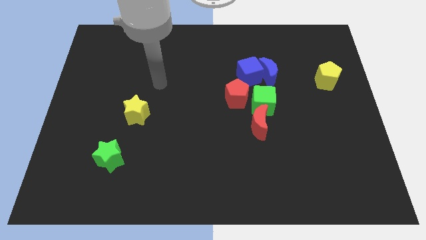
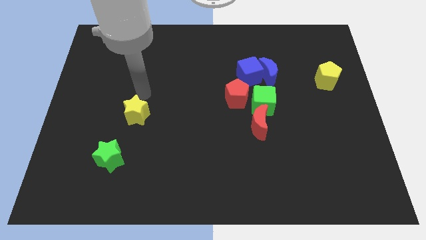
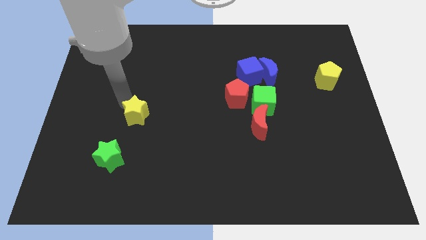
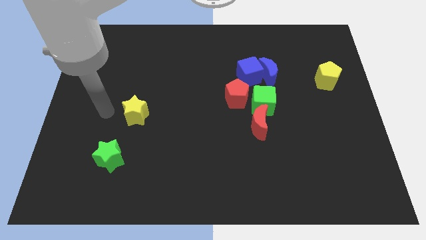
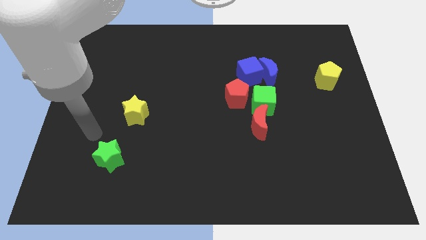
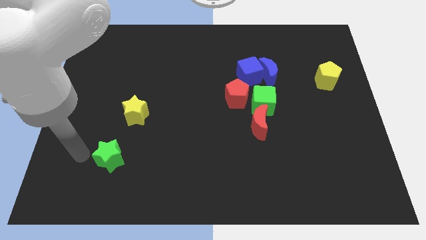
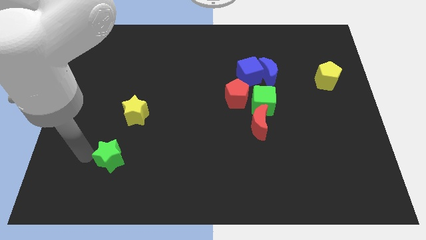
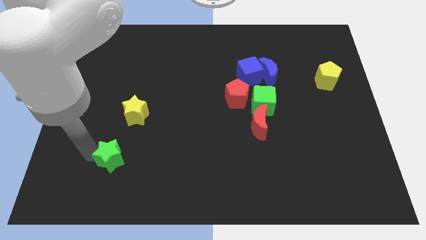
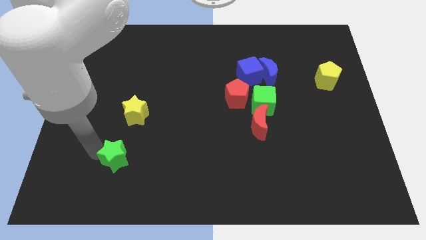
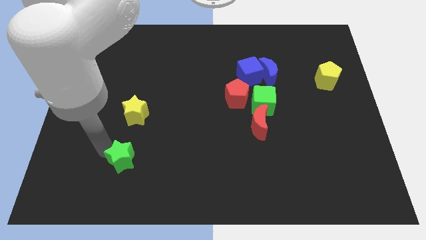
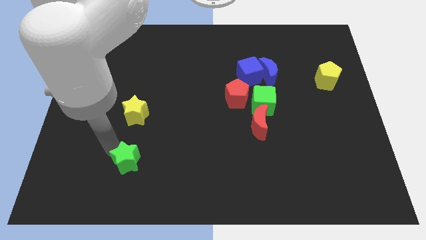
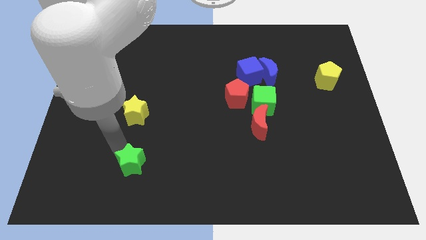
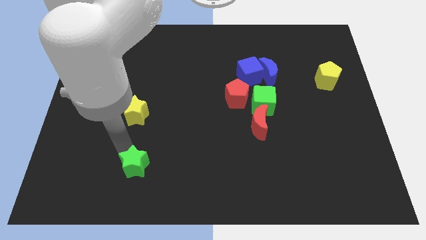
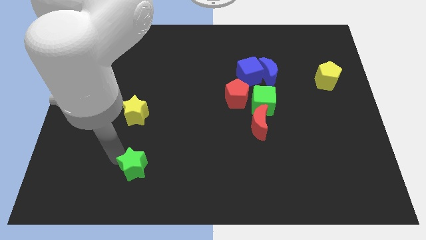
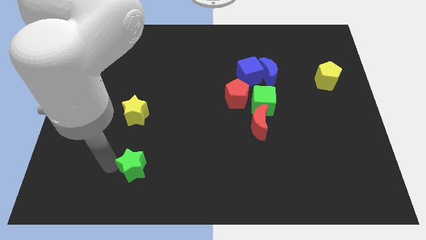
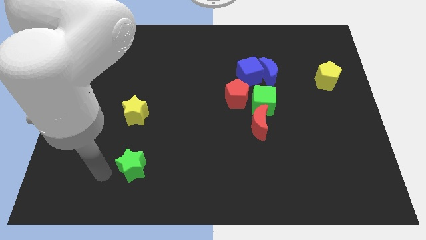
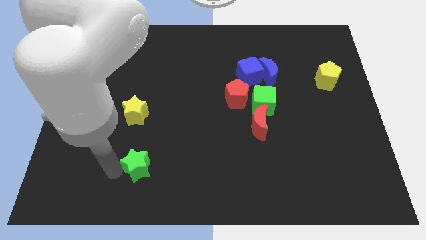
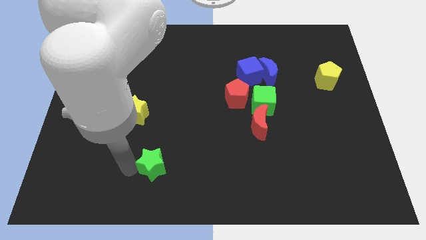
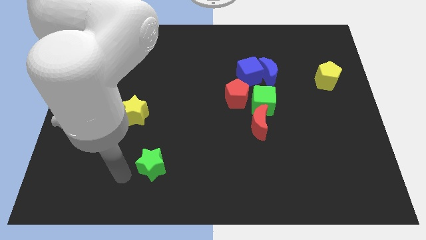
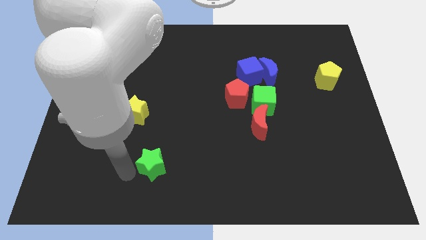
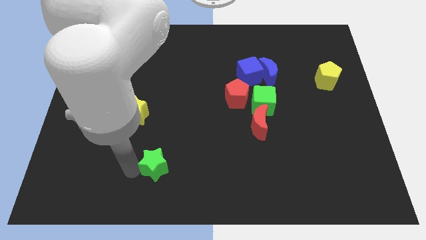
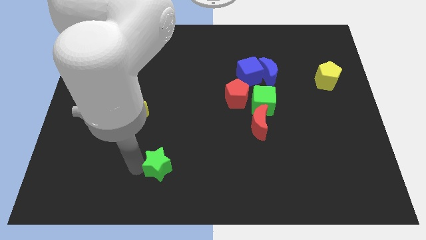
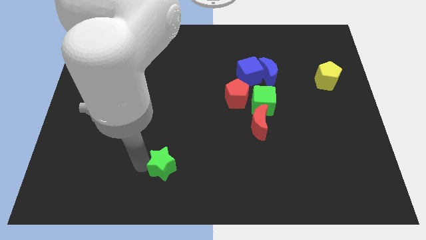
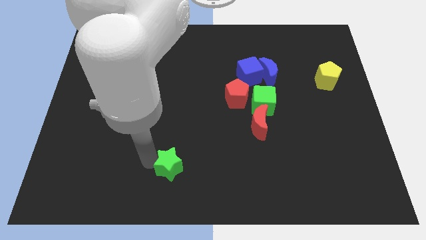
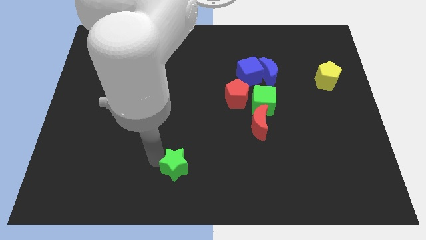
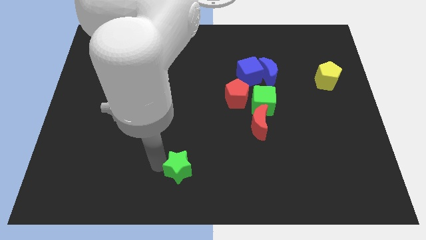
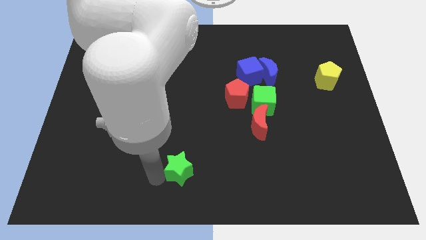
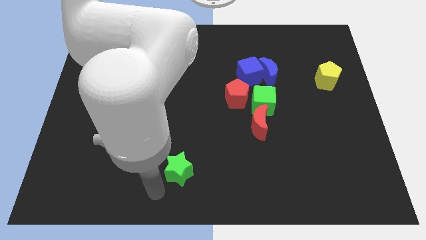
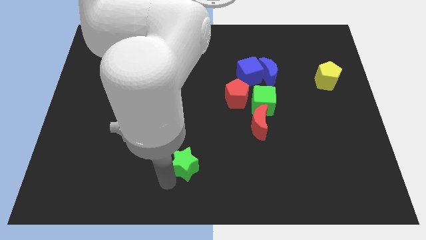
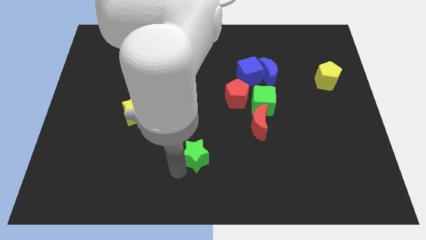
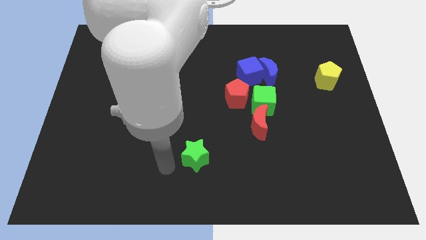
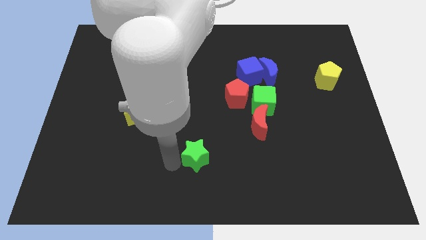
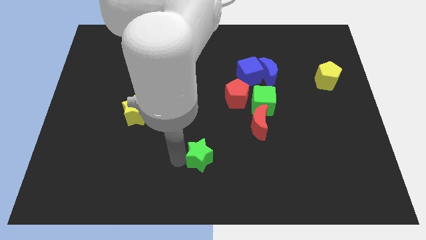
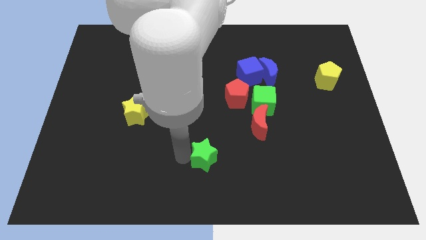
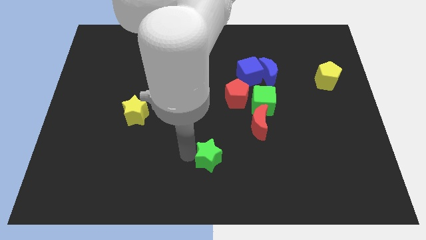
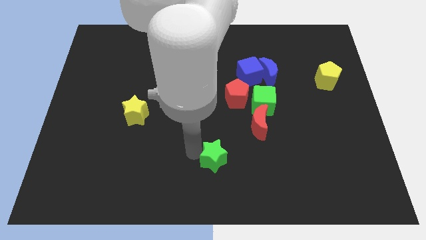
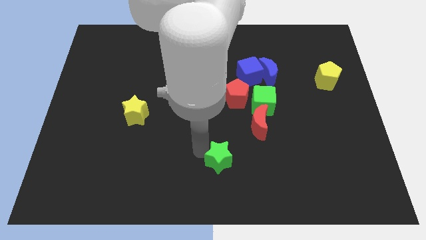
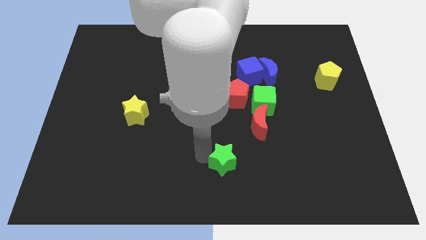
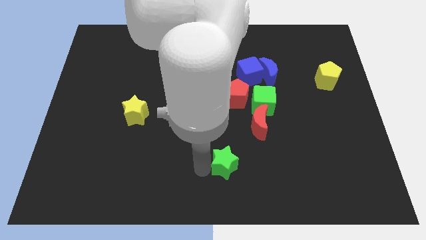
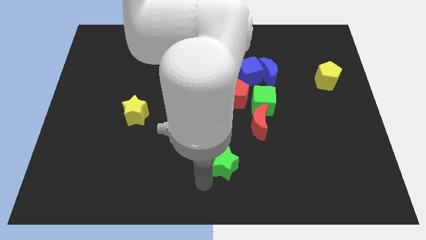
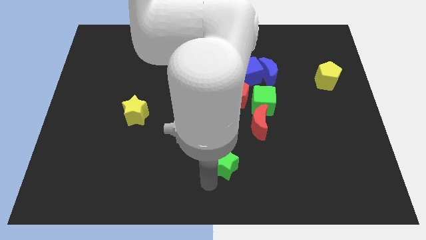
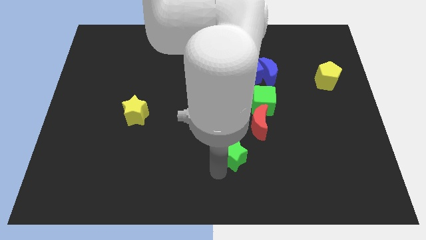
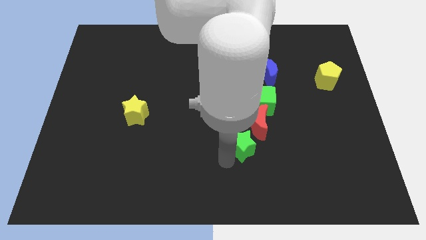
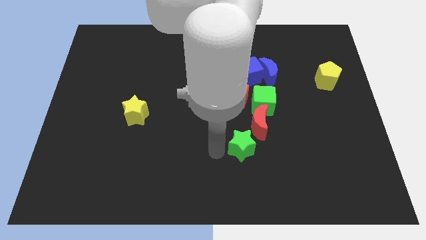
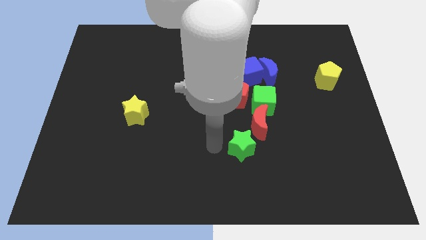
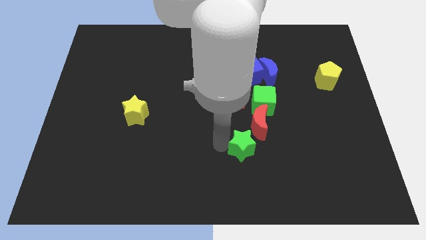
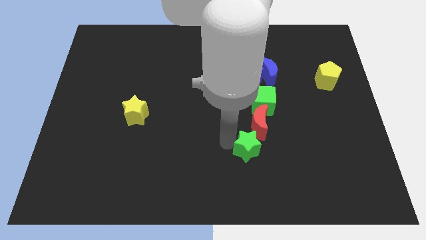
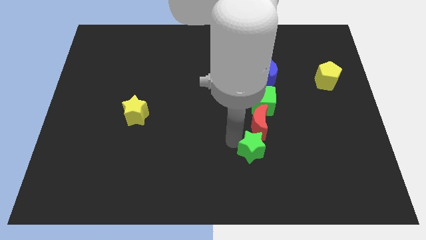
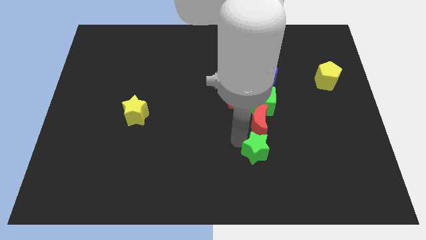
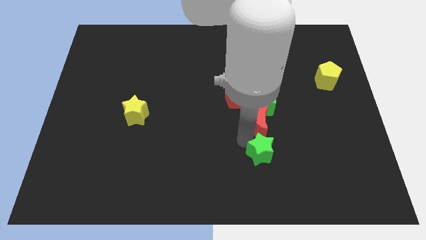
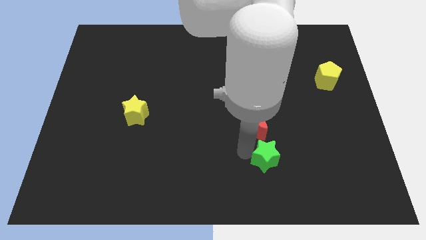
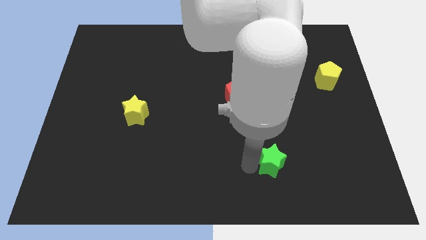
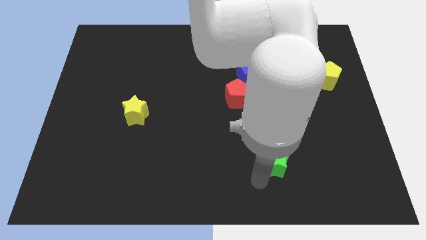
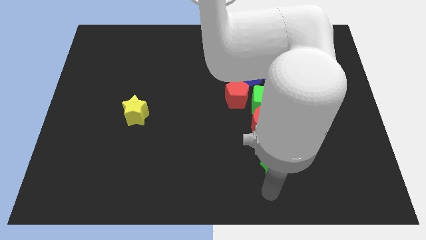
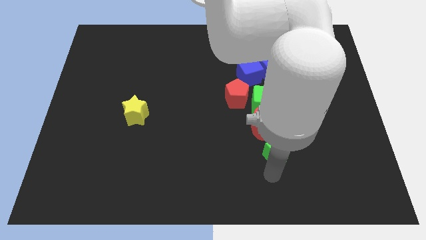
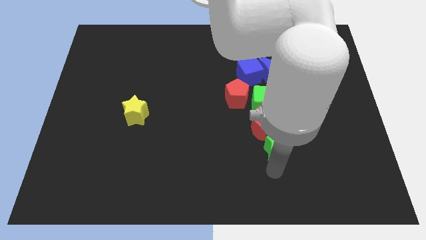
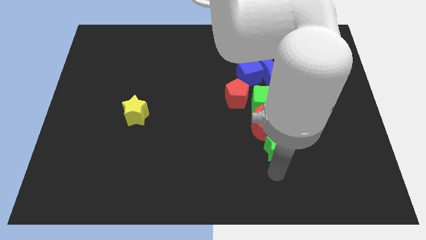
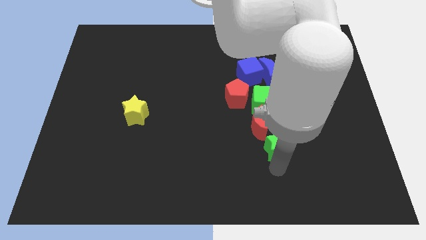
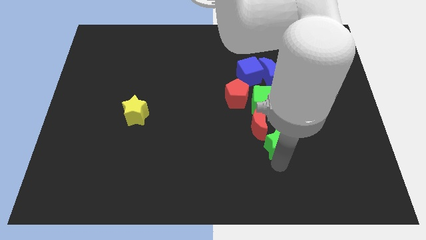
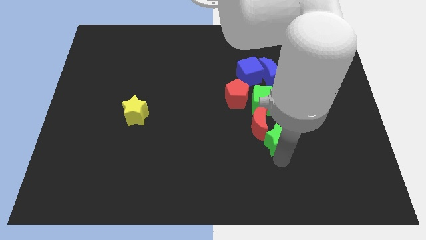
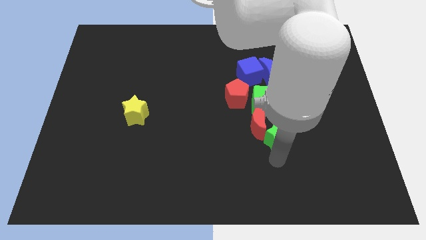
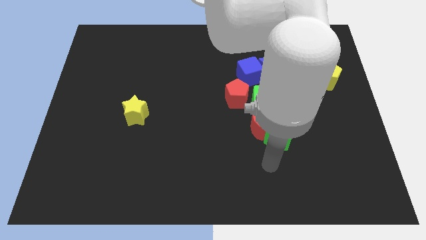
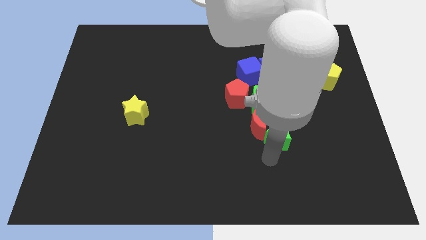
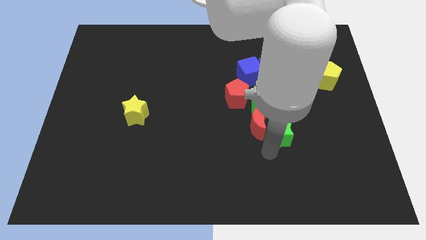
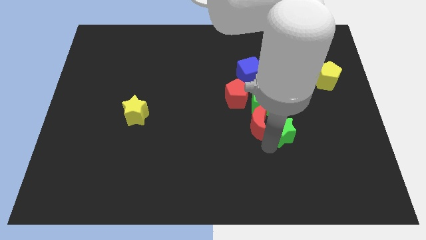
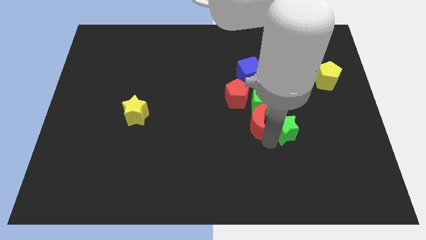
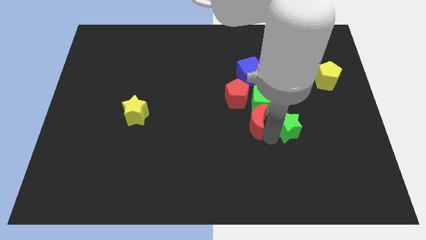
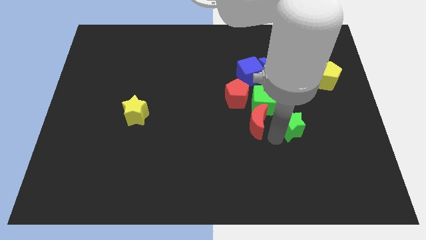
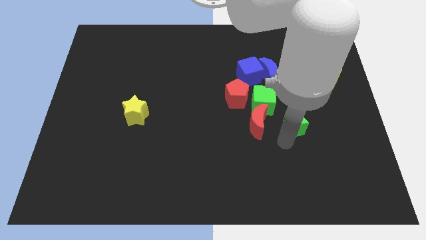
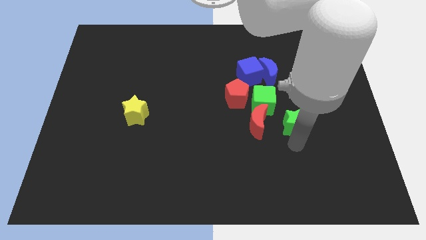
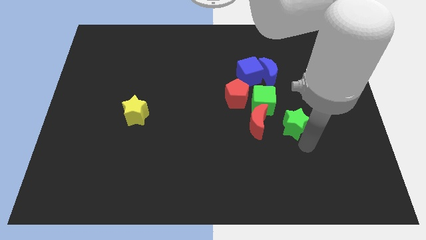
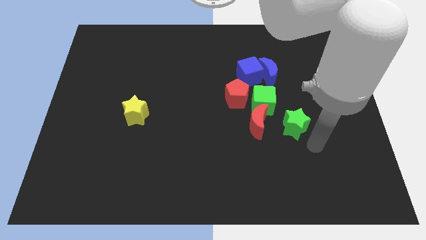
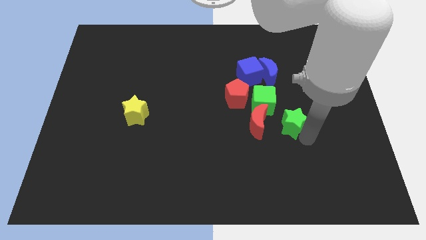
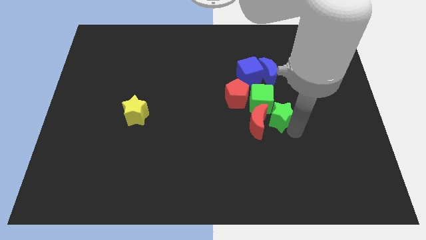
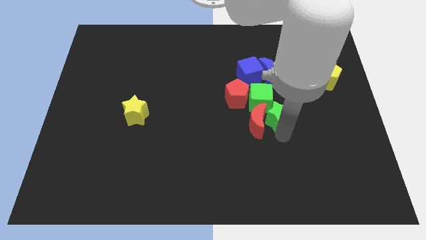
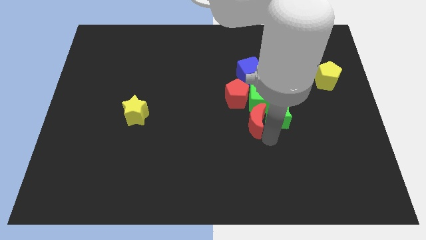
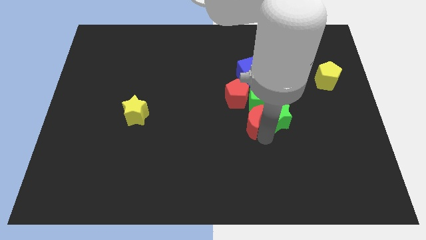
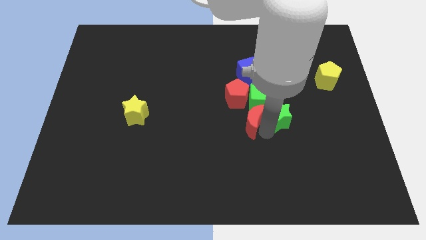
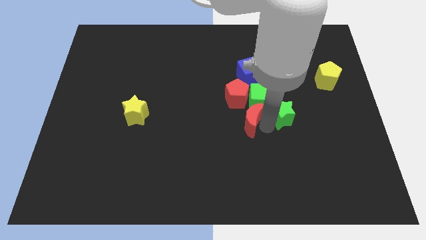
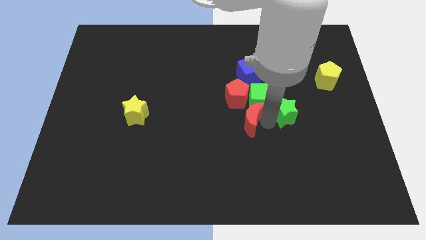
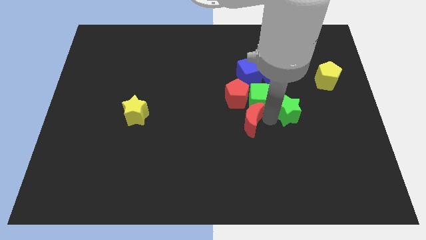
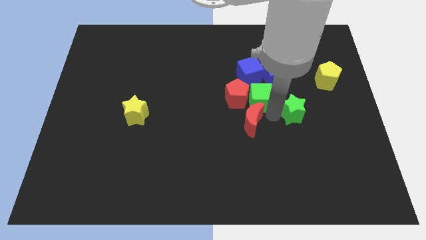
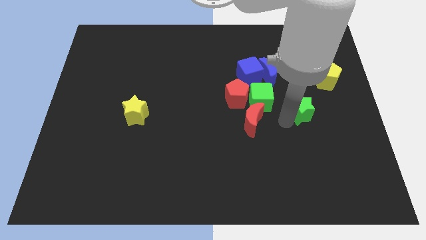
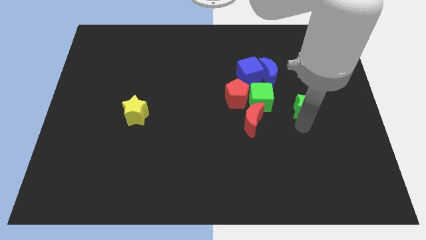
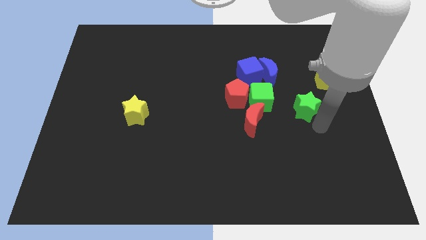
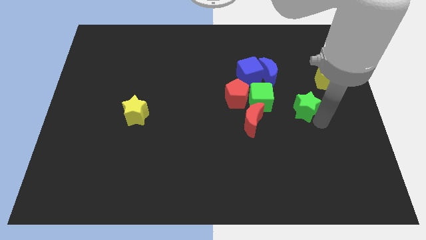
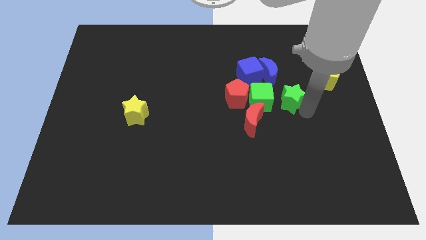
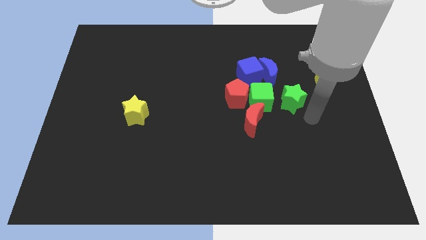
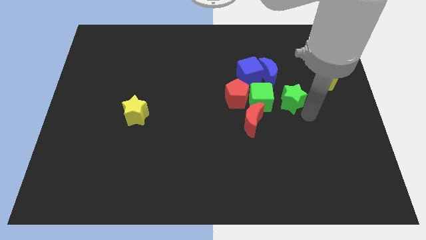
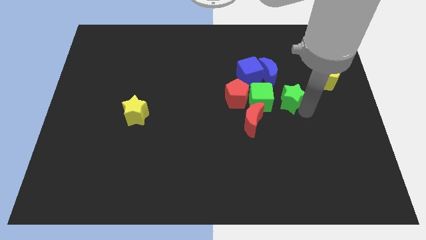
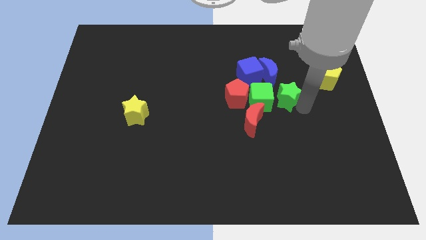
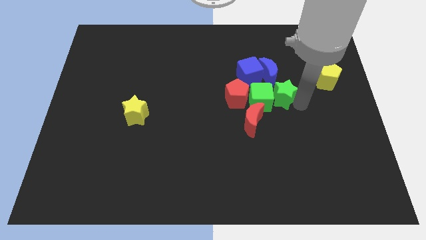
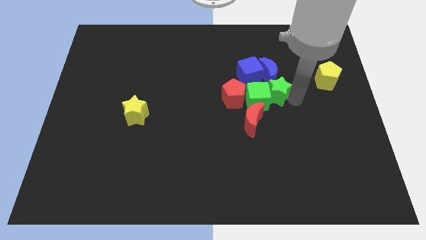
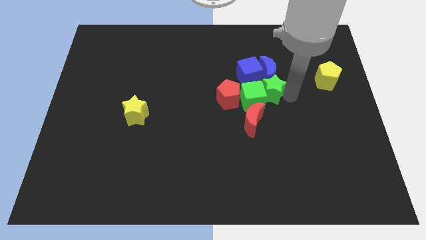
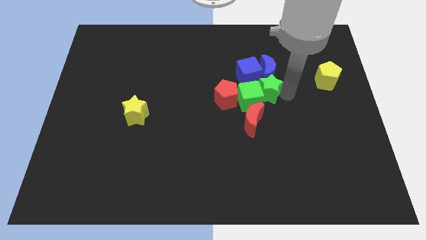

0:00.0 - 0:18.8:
push the green star to the top of the red moon
